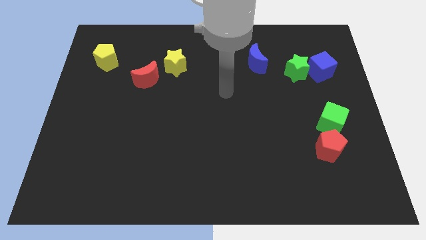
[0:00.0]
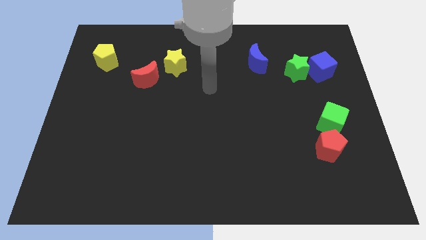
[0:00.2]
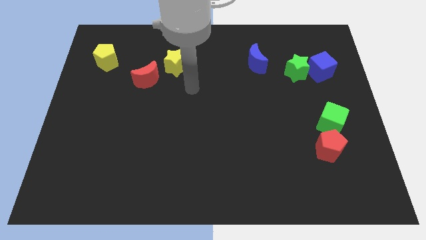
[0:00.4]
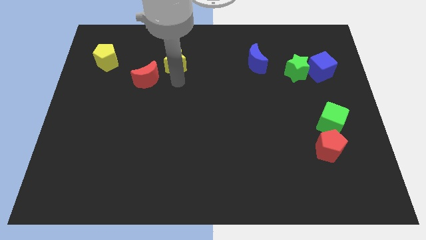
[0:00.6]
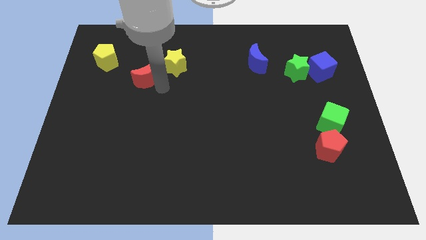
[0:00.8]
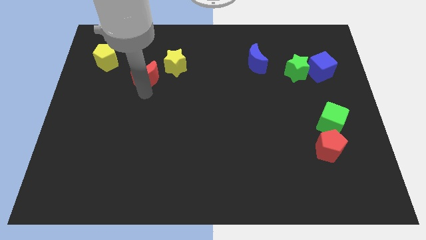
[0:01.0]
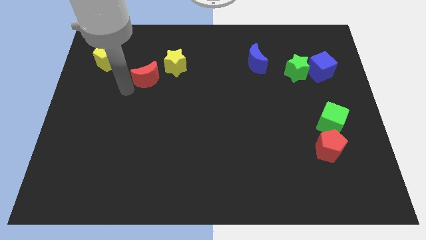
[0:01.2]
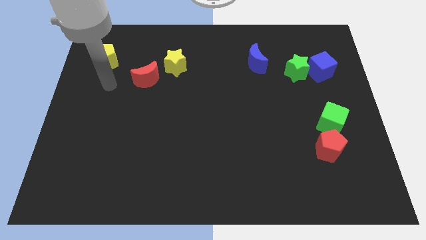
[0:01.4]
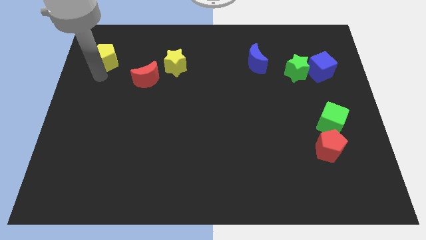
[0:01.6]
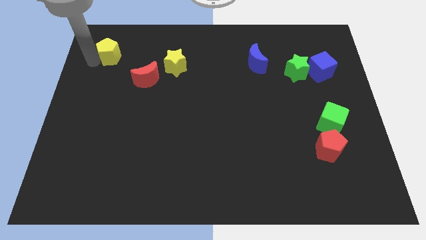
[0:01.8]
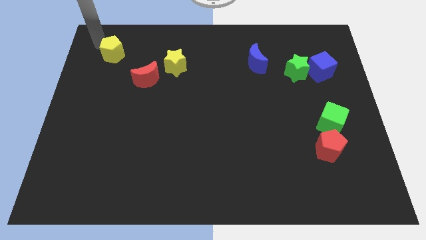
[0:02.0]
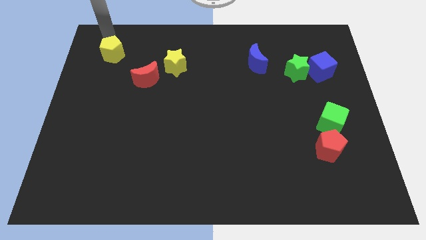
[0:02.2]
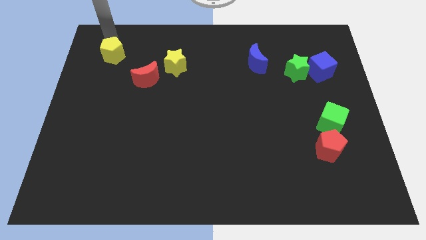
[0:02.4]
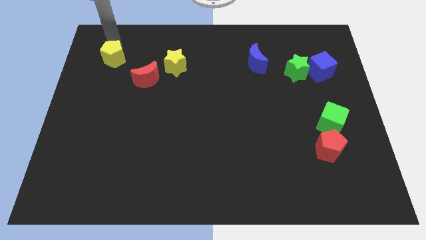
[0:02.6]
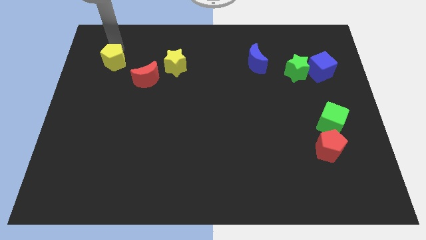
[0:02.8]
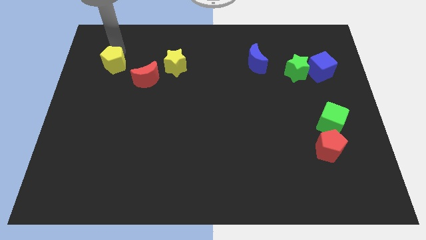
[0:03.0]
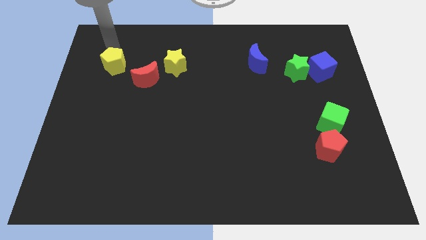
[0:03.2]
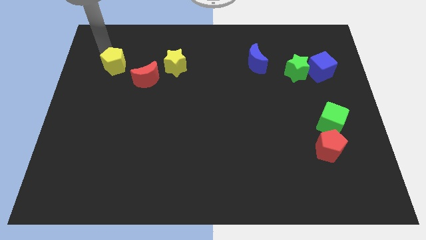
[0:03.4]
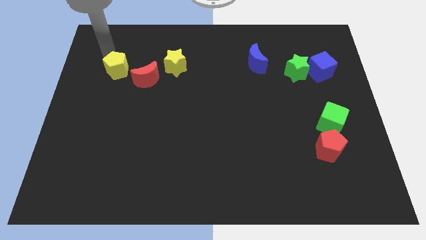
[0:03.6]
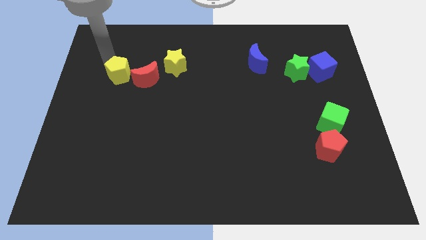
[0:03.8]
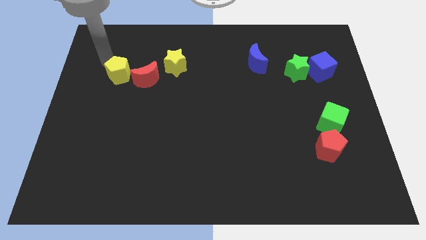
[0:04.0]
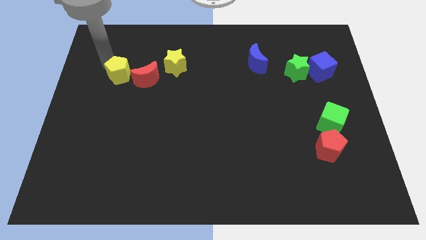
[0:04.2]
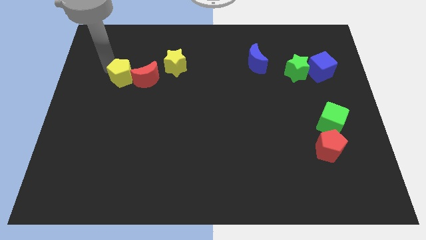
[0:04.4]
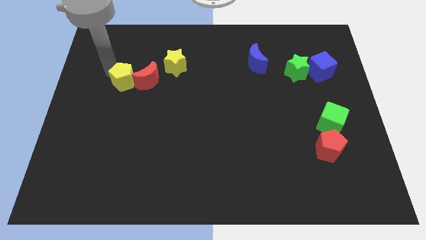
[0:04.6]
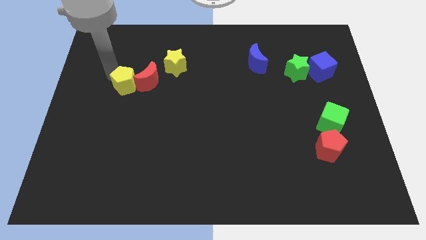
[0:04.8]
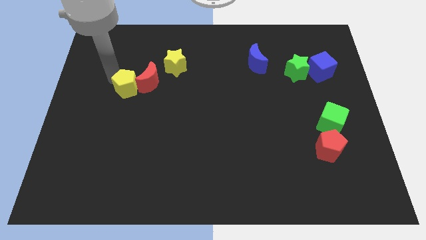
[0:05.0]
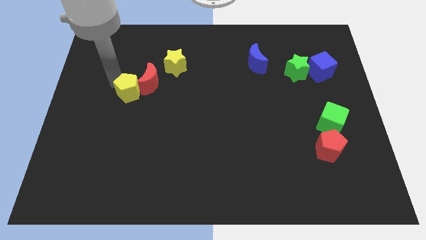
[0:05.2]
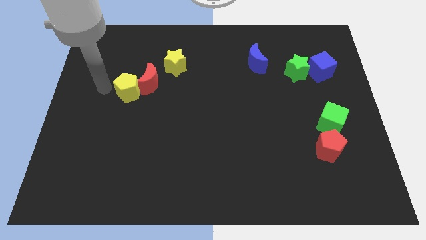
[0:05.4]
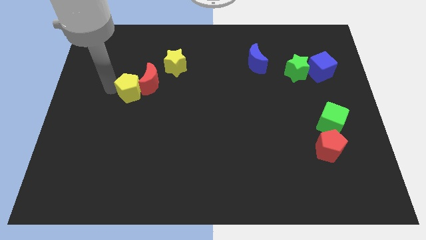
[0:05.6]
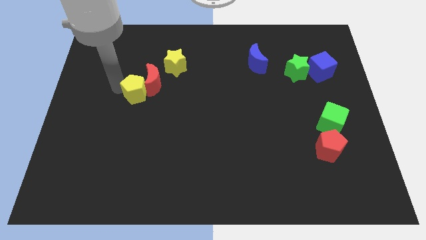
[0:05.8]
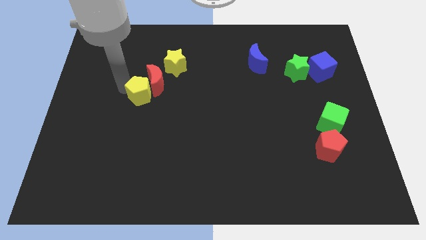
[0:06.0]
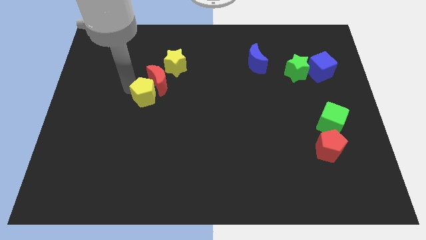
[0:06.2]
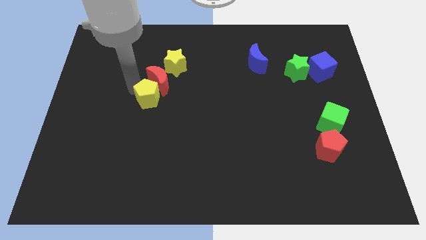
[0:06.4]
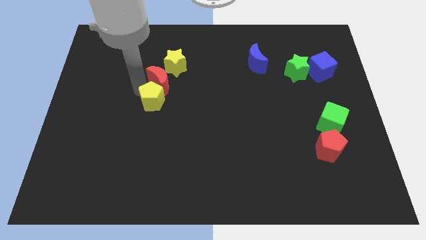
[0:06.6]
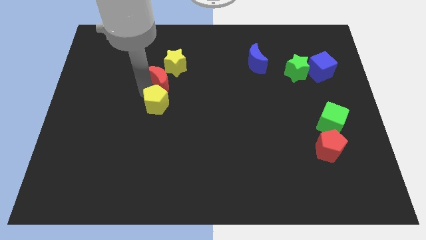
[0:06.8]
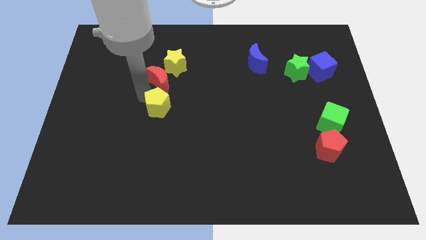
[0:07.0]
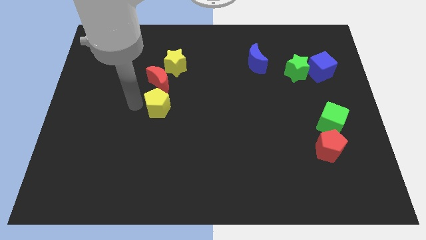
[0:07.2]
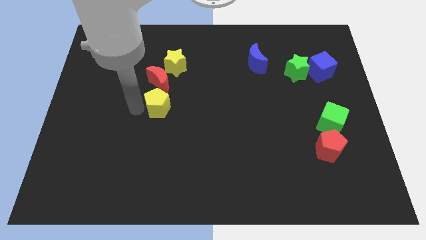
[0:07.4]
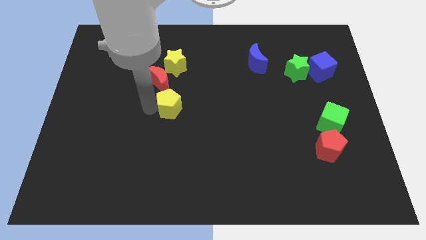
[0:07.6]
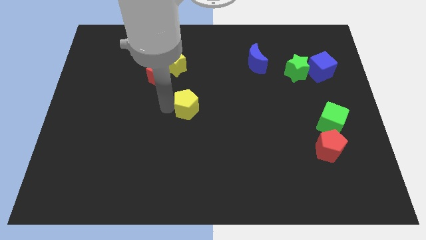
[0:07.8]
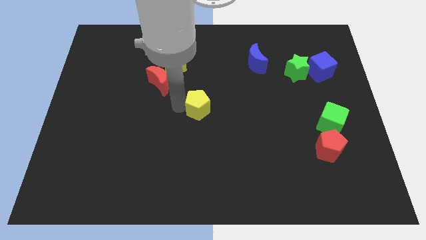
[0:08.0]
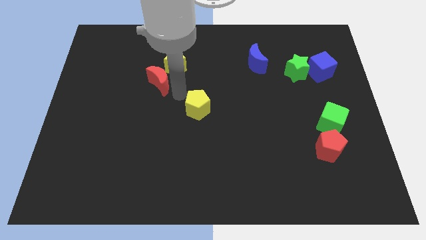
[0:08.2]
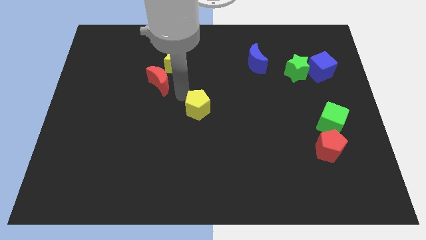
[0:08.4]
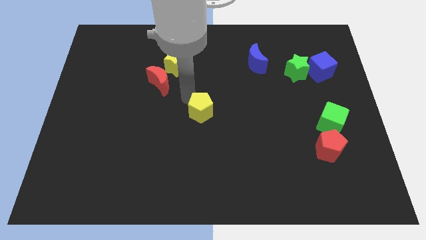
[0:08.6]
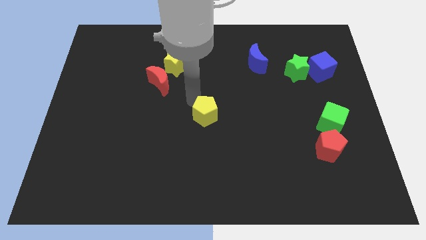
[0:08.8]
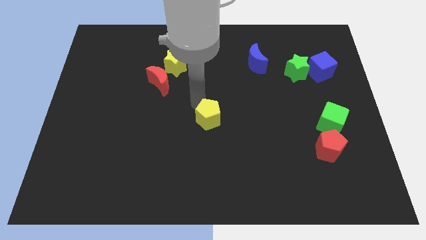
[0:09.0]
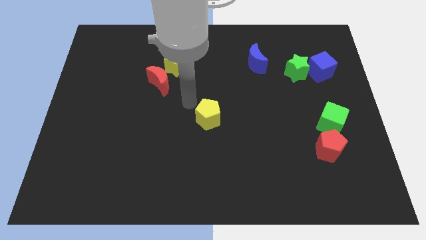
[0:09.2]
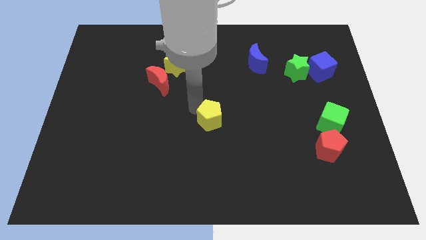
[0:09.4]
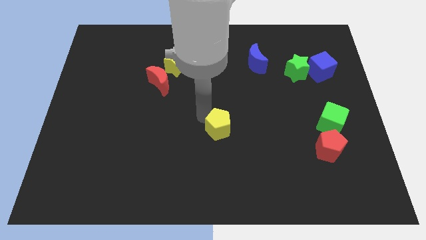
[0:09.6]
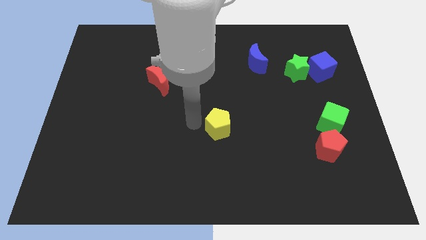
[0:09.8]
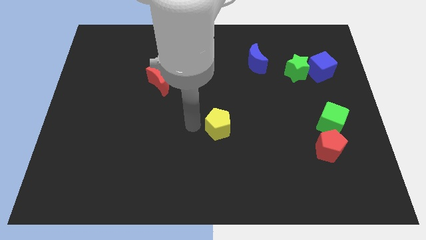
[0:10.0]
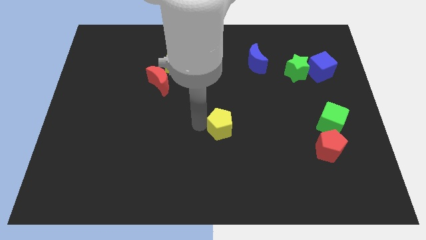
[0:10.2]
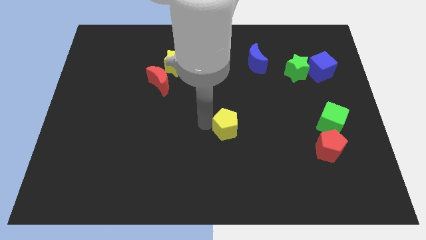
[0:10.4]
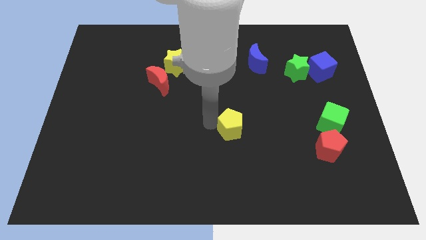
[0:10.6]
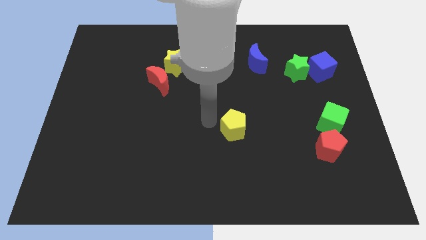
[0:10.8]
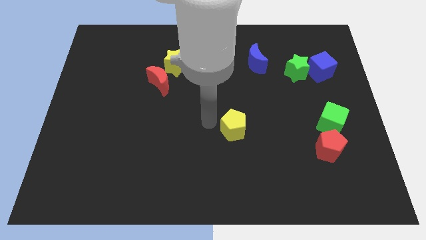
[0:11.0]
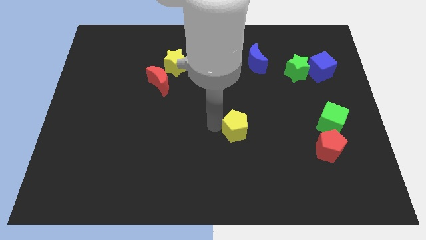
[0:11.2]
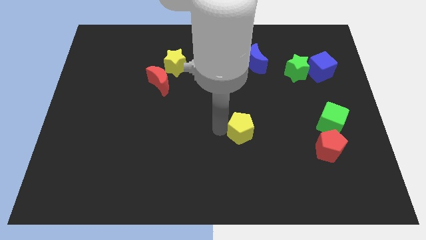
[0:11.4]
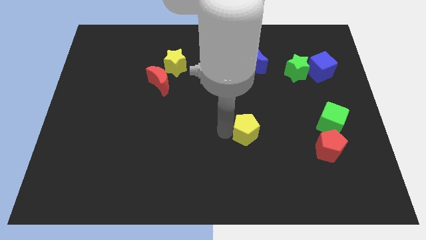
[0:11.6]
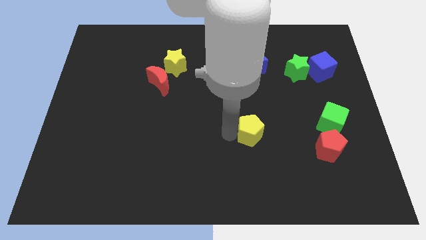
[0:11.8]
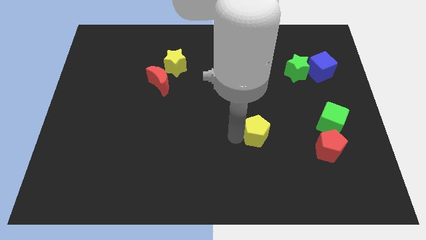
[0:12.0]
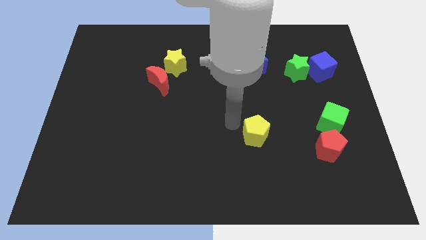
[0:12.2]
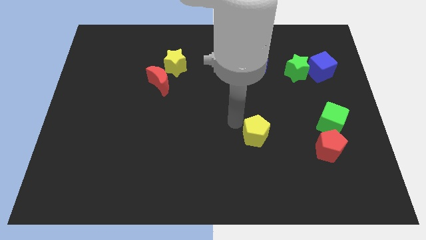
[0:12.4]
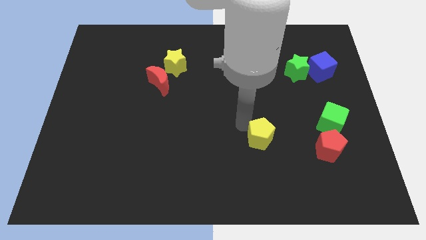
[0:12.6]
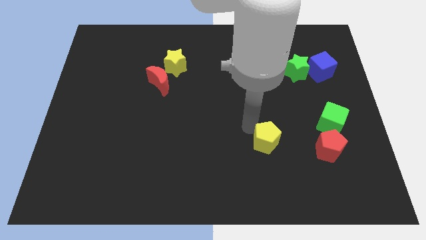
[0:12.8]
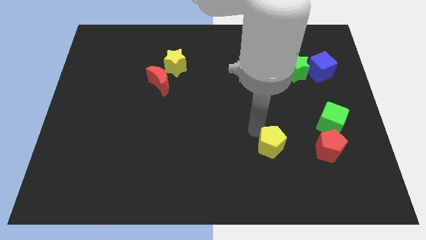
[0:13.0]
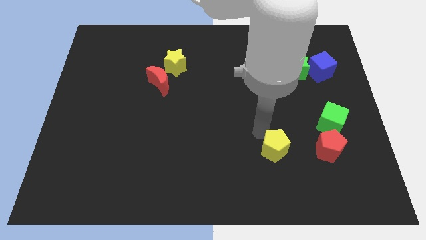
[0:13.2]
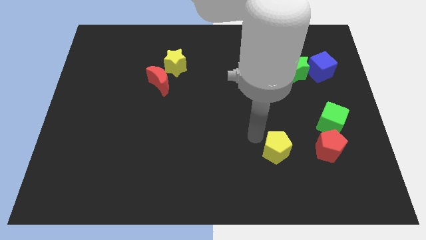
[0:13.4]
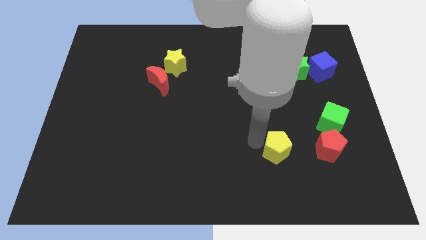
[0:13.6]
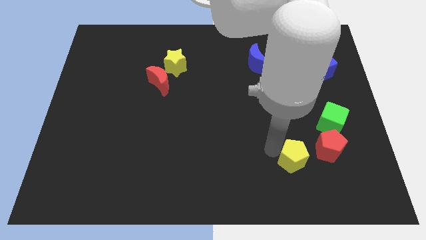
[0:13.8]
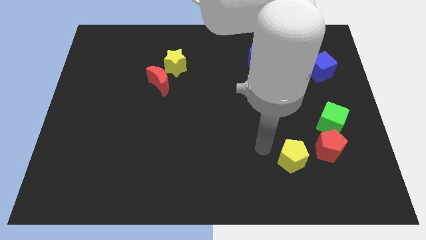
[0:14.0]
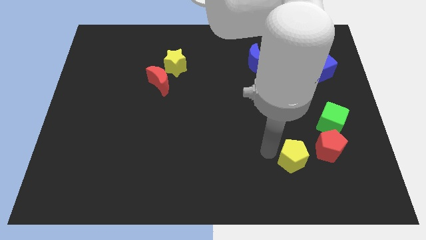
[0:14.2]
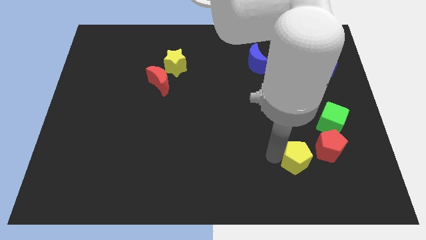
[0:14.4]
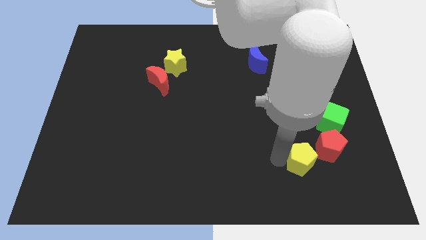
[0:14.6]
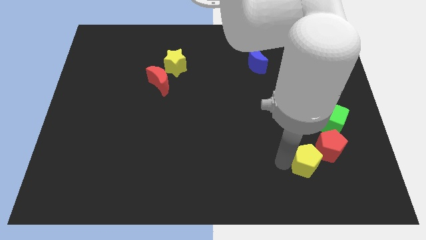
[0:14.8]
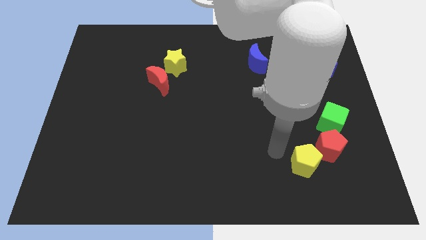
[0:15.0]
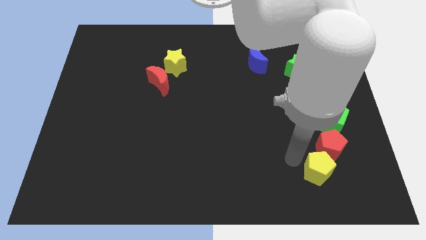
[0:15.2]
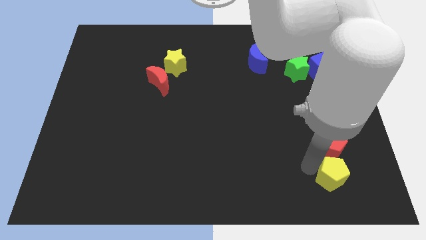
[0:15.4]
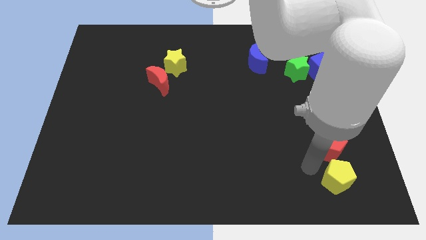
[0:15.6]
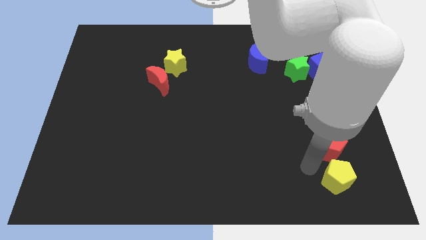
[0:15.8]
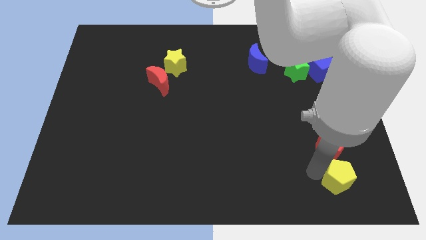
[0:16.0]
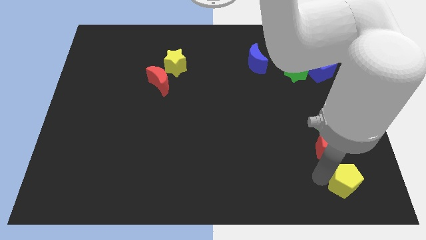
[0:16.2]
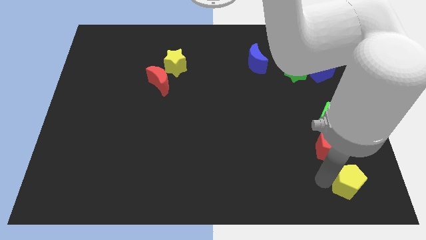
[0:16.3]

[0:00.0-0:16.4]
slide the yellow pentagon to the lower right corner
